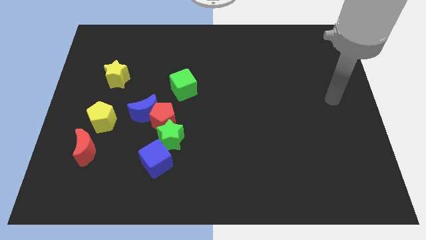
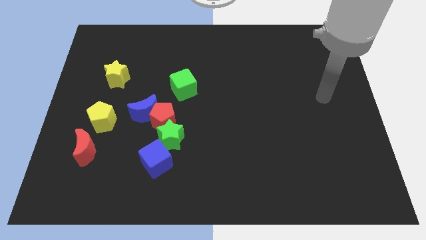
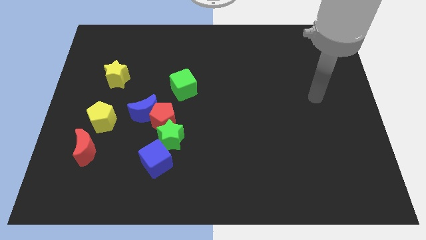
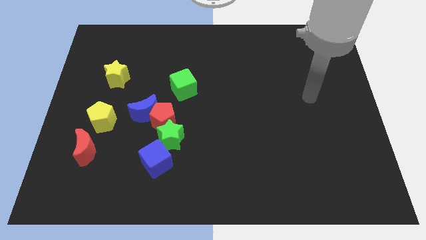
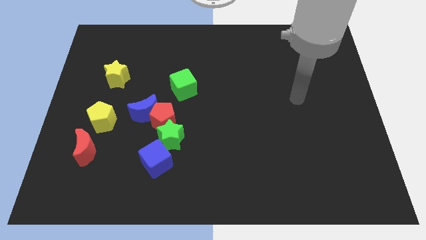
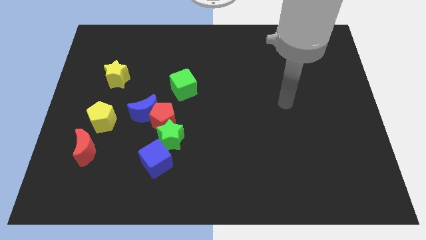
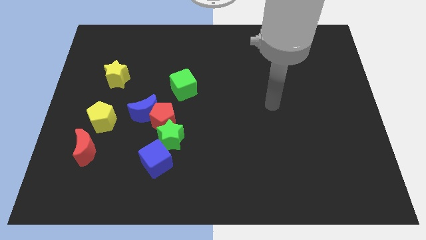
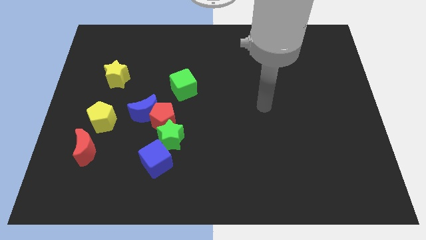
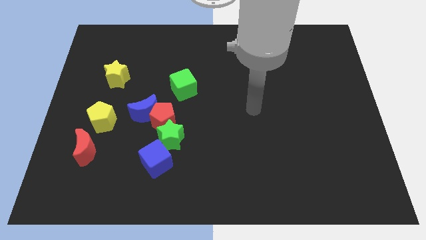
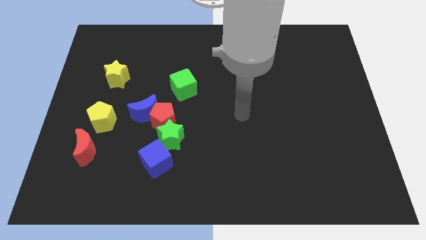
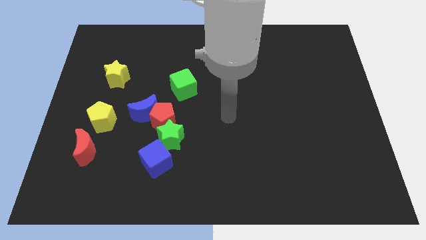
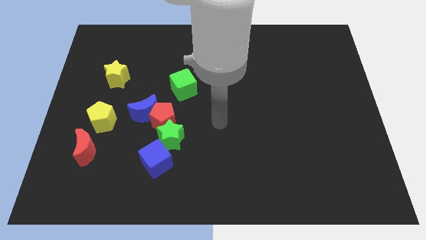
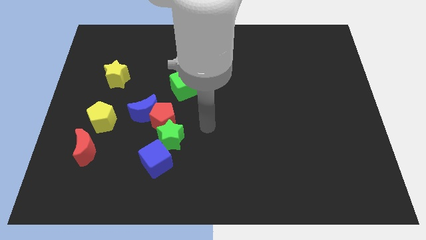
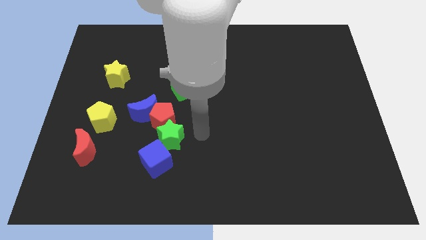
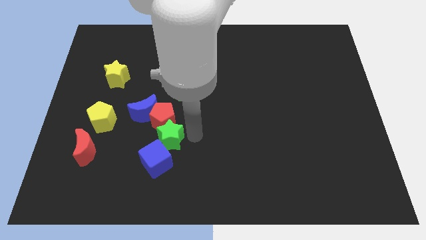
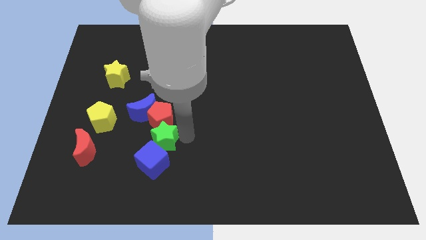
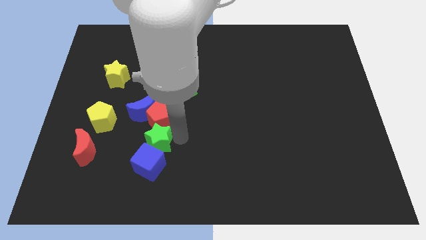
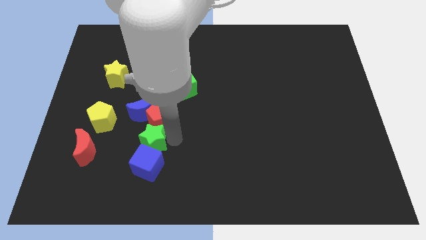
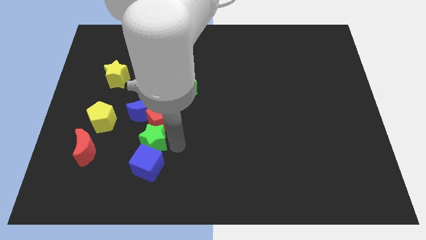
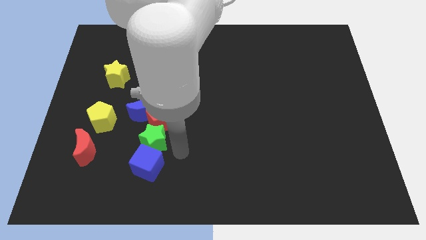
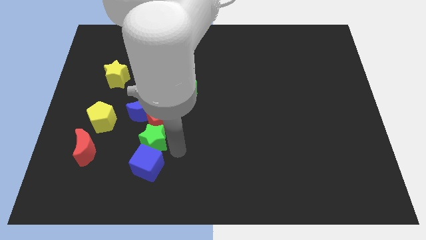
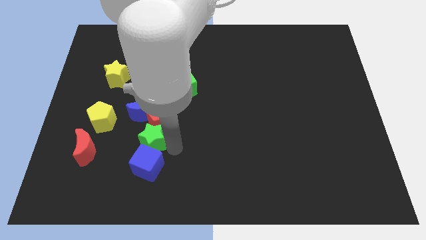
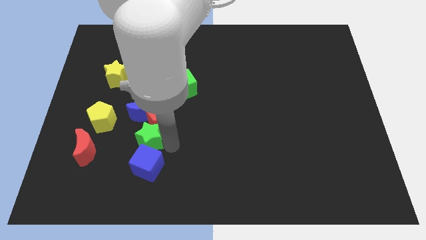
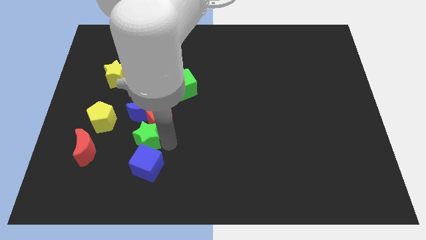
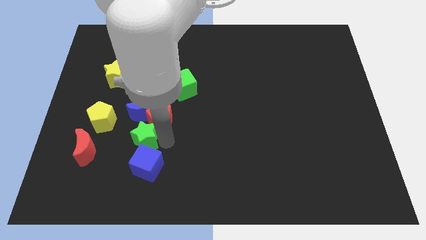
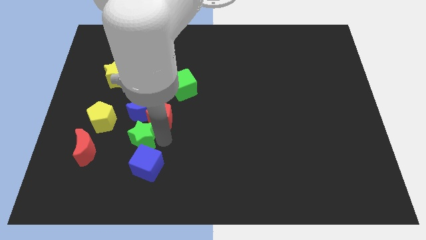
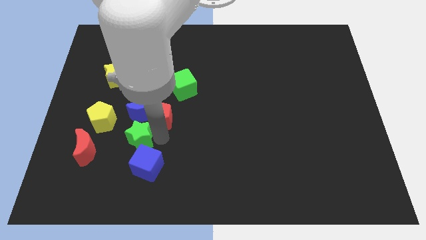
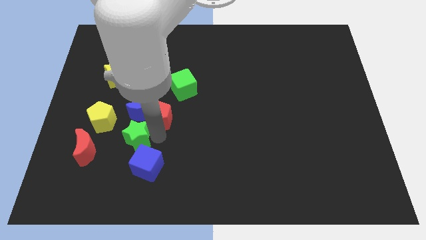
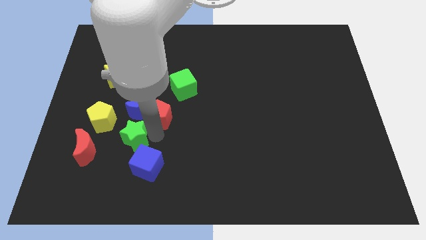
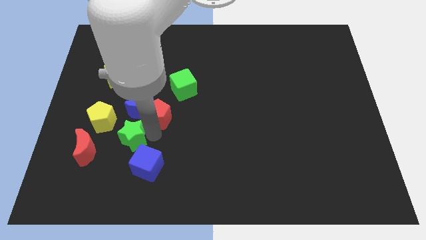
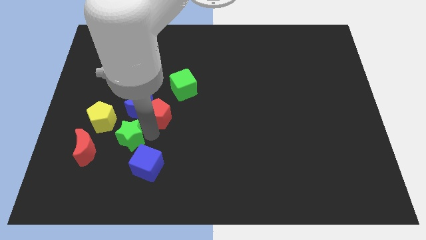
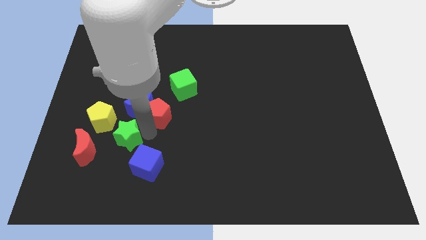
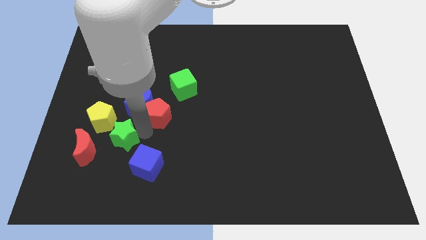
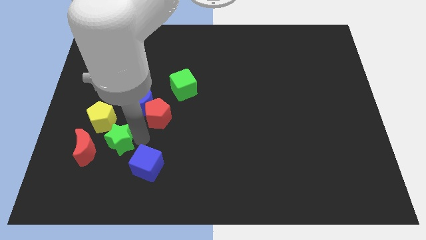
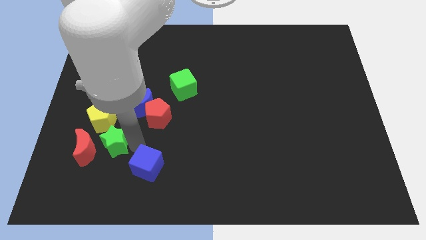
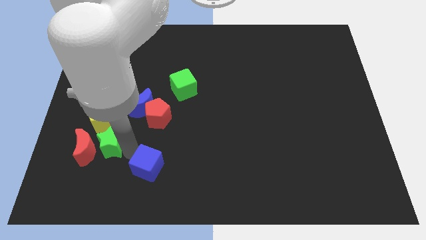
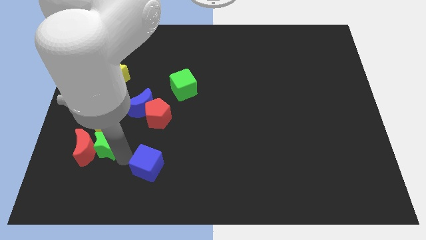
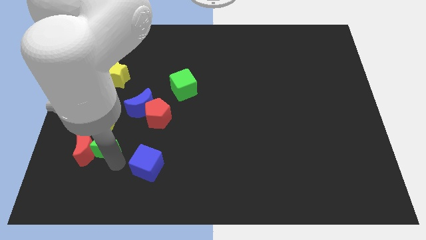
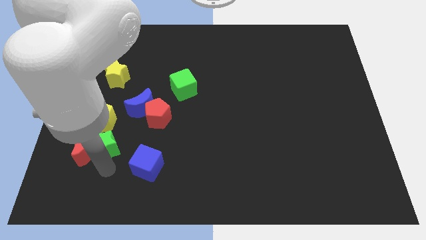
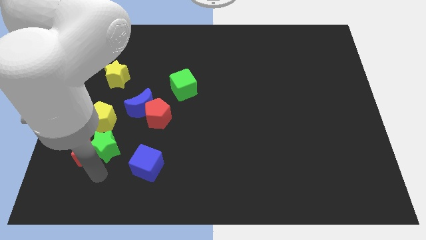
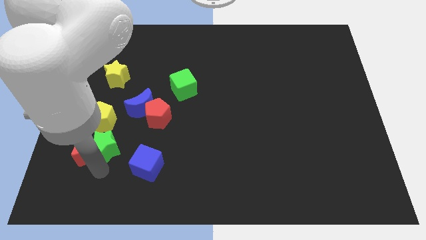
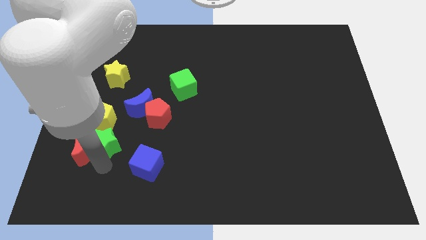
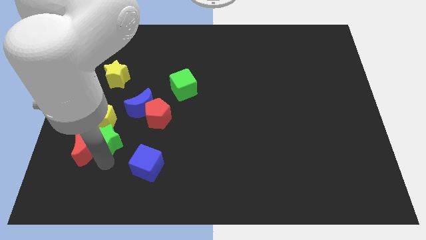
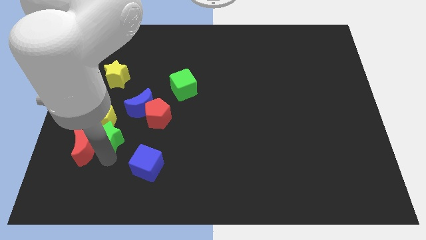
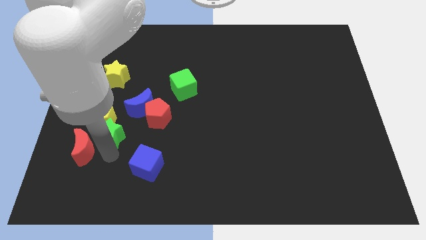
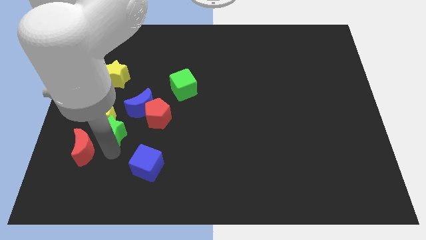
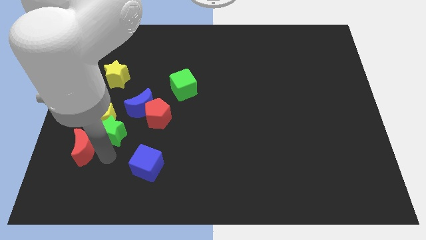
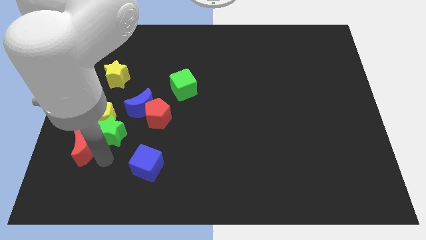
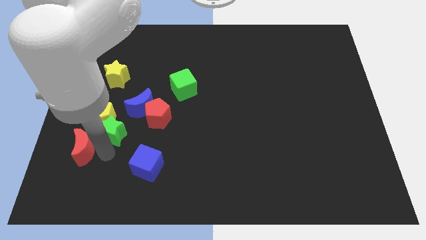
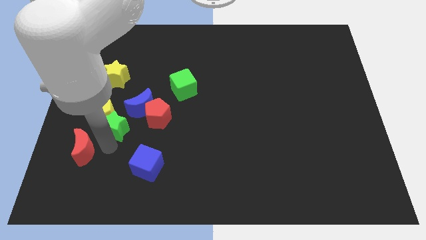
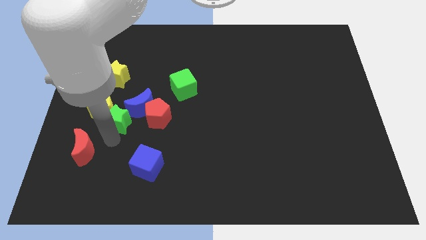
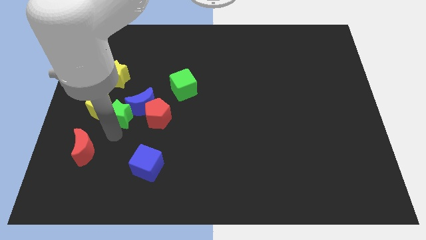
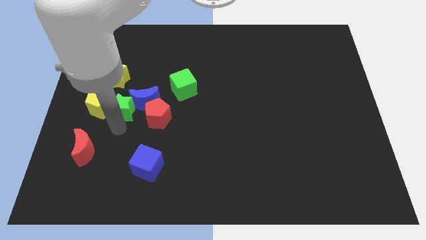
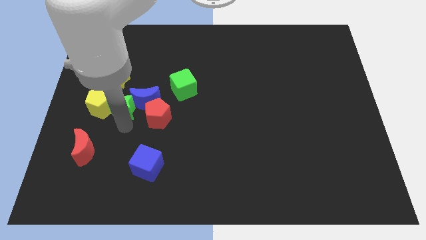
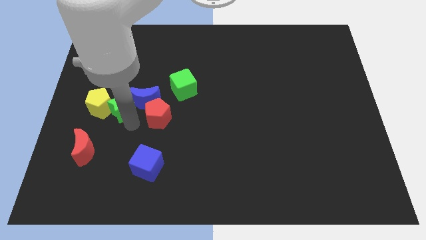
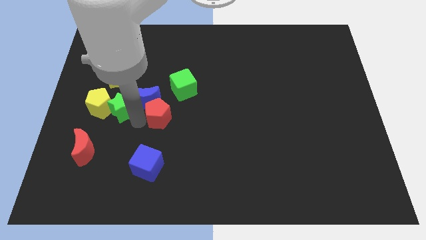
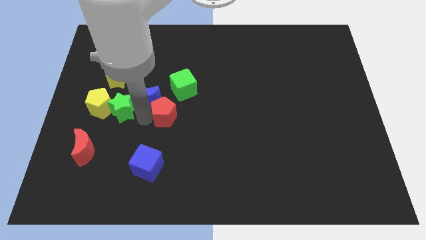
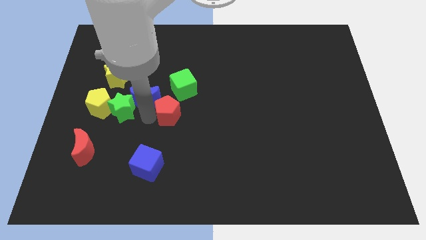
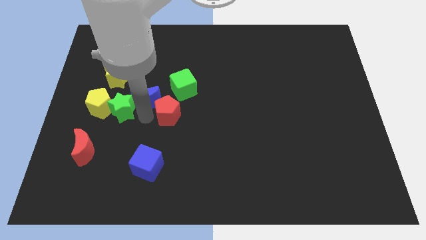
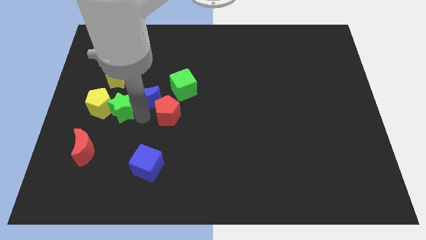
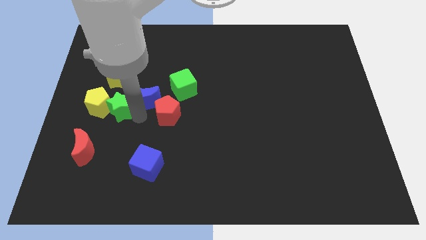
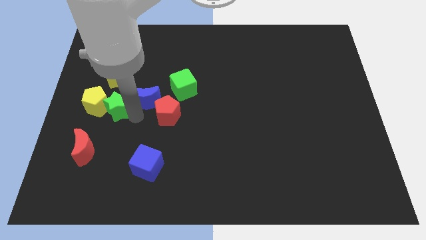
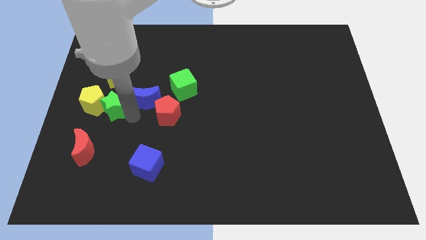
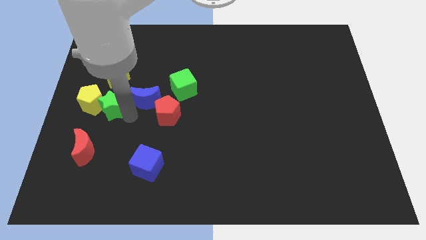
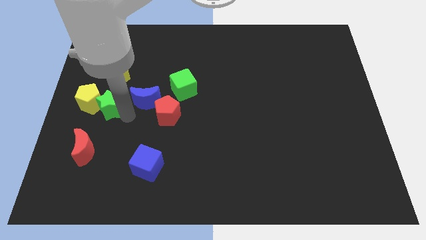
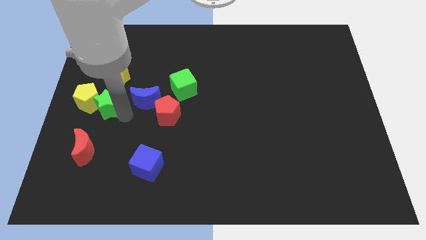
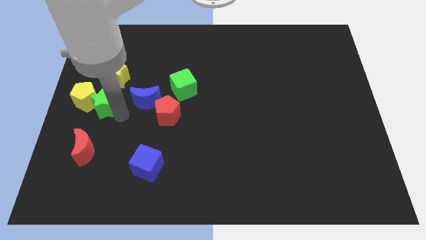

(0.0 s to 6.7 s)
push the green star to the center left

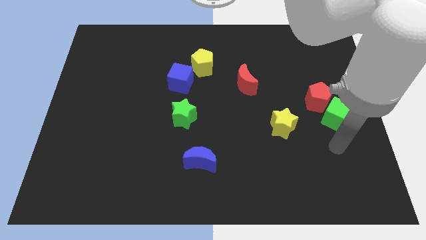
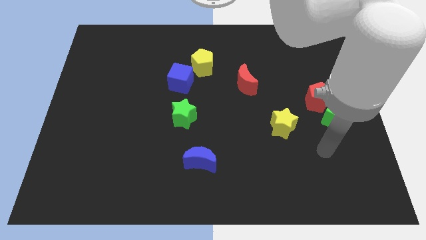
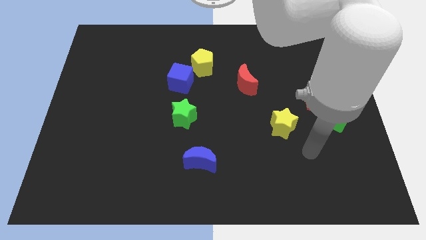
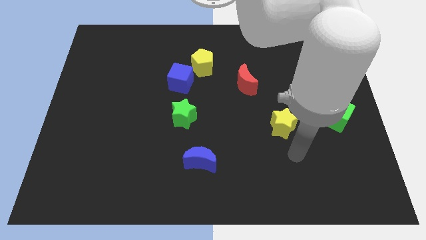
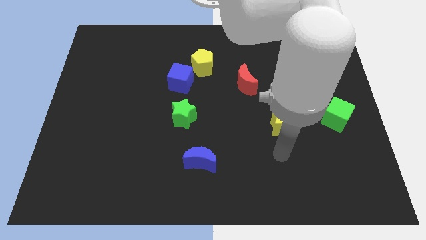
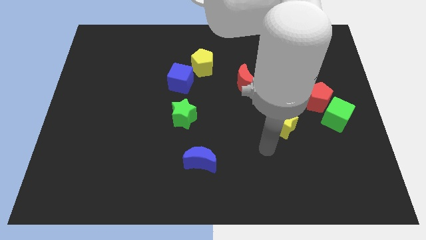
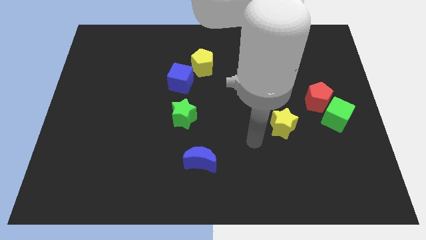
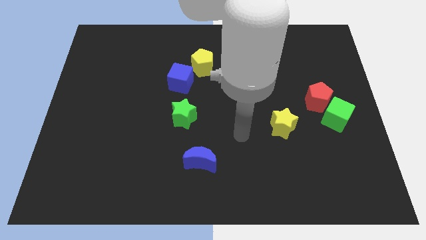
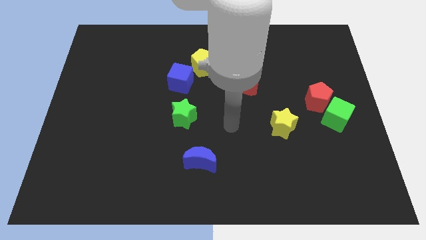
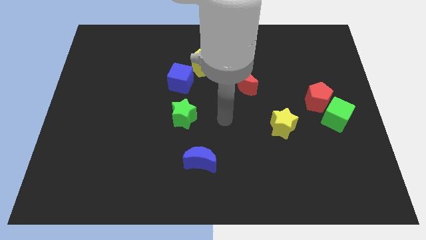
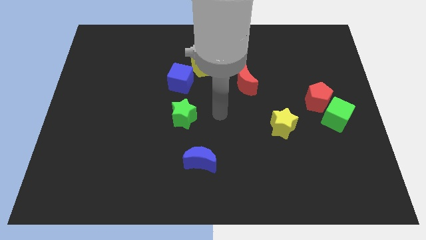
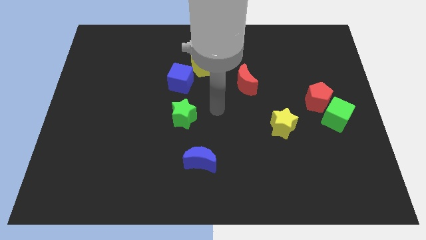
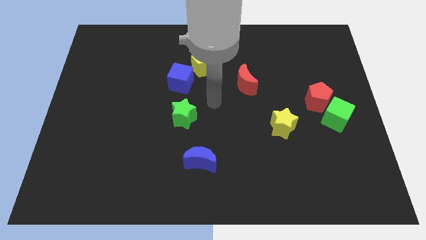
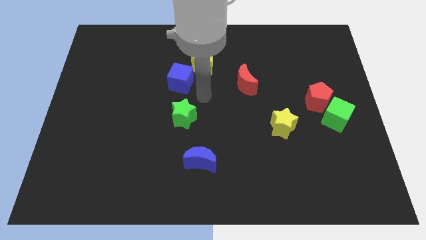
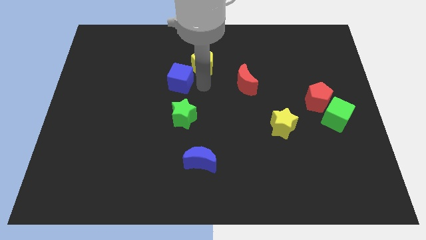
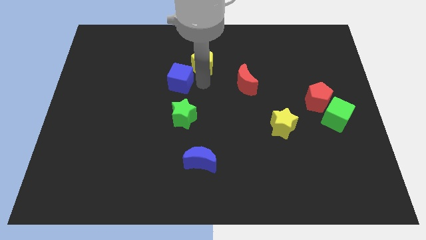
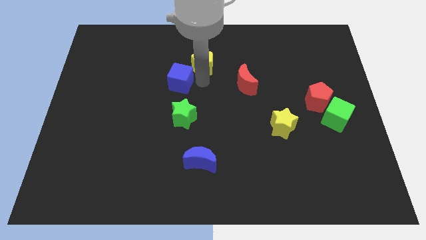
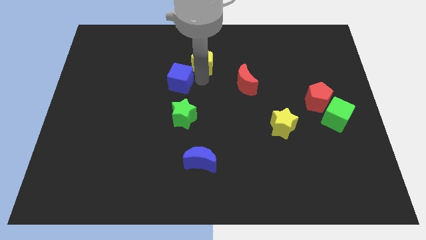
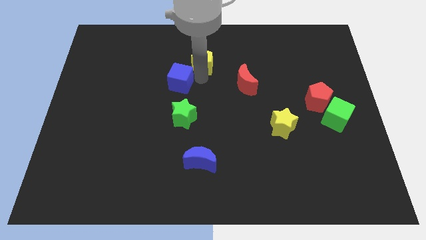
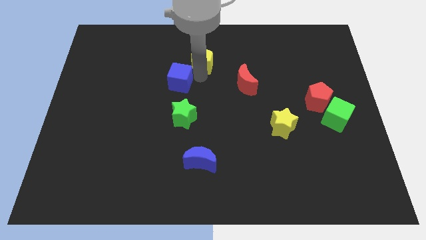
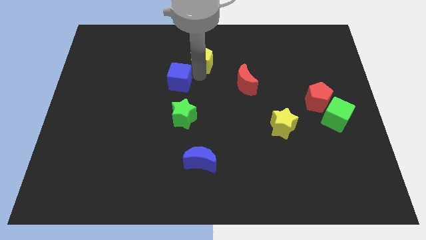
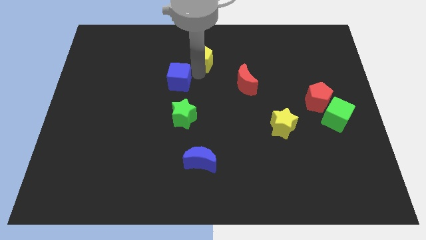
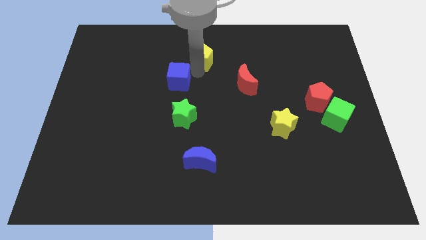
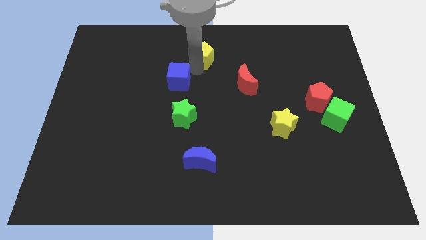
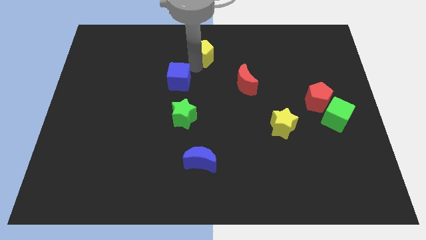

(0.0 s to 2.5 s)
slide the yellow pentagon to the towards your base
